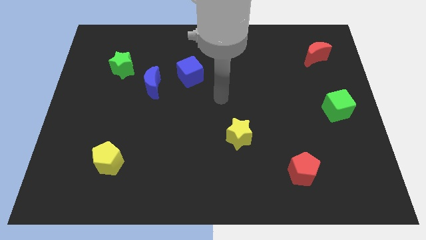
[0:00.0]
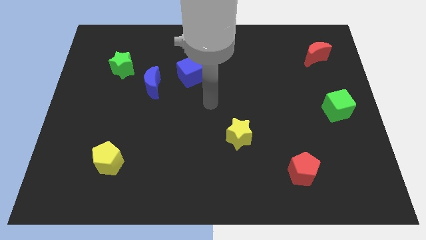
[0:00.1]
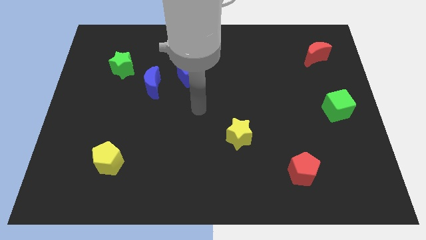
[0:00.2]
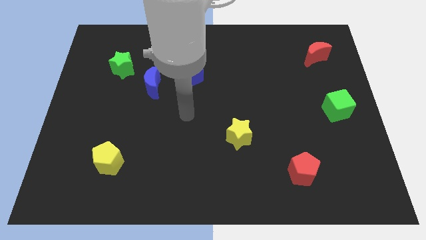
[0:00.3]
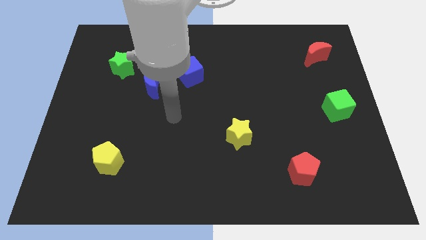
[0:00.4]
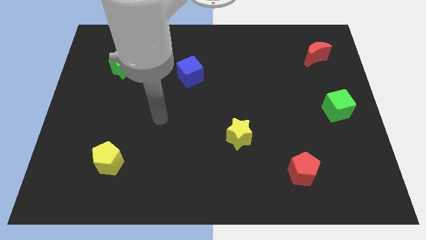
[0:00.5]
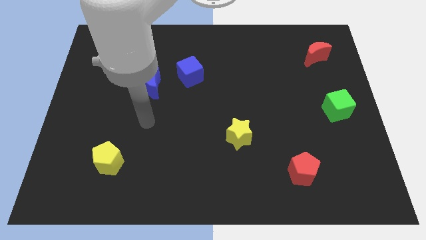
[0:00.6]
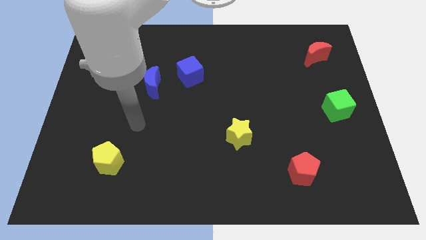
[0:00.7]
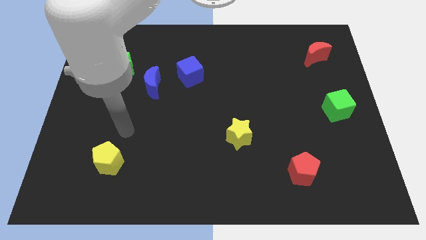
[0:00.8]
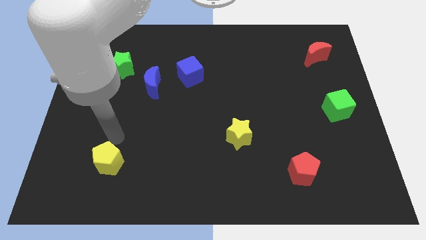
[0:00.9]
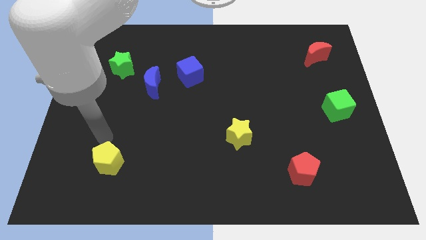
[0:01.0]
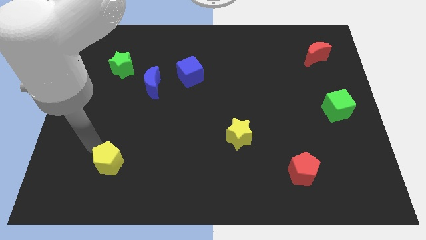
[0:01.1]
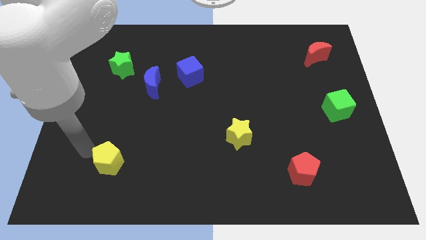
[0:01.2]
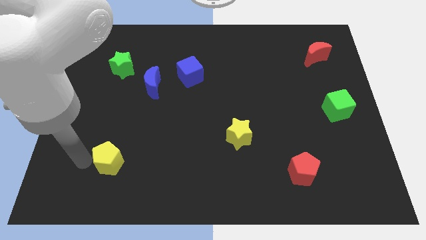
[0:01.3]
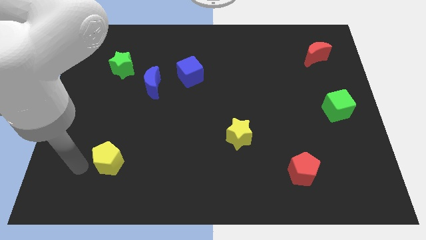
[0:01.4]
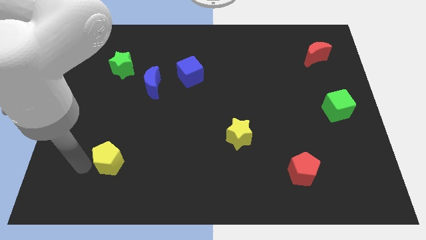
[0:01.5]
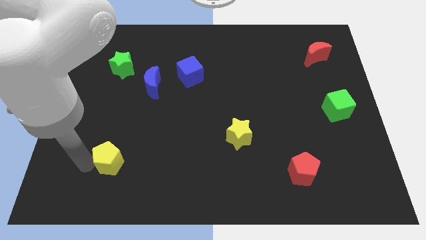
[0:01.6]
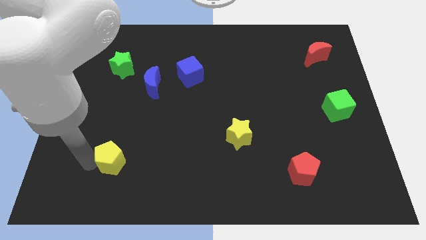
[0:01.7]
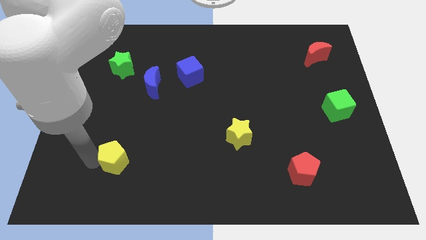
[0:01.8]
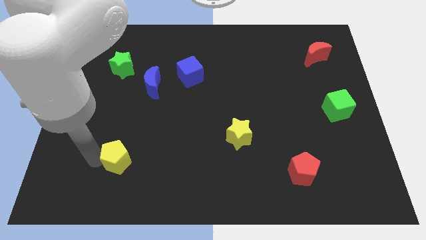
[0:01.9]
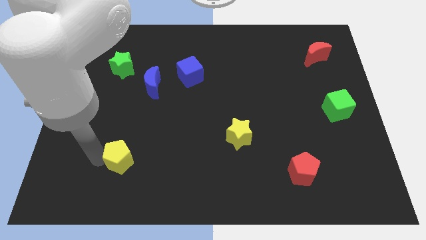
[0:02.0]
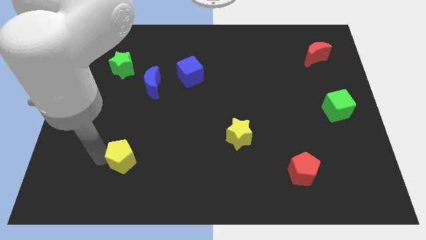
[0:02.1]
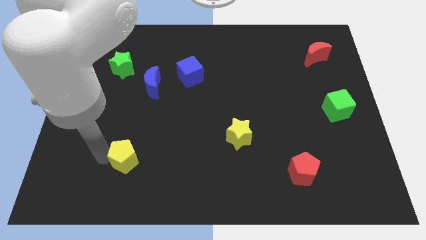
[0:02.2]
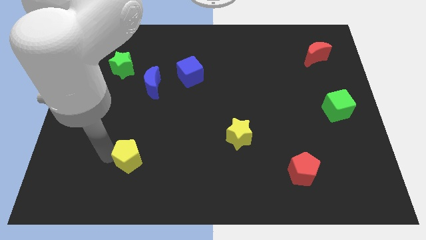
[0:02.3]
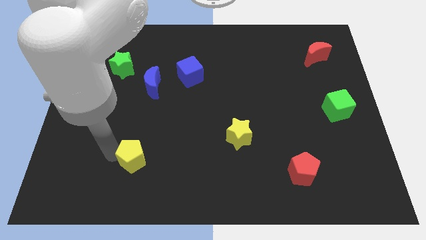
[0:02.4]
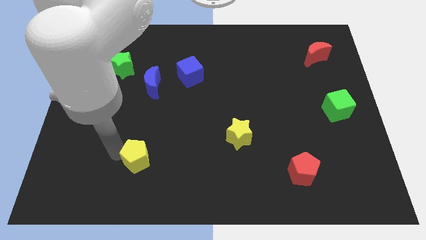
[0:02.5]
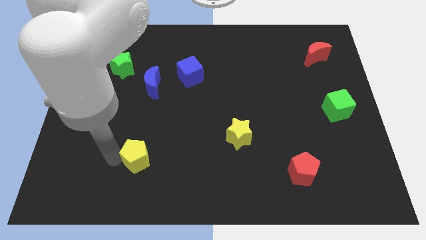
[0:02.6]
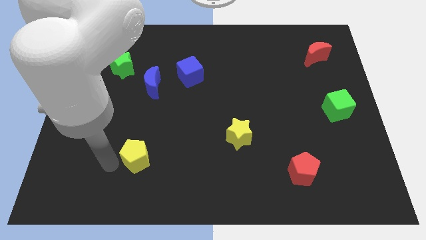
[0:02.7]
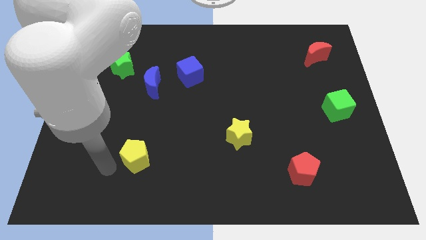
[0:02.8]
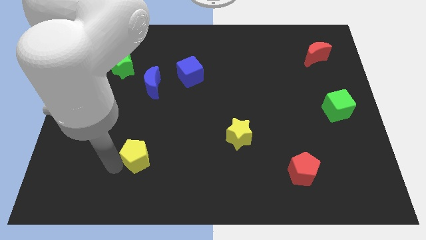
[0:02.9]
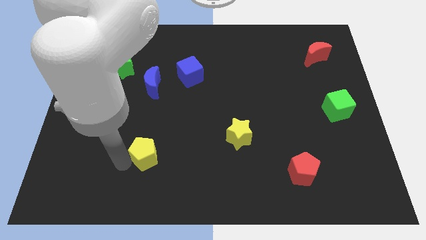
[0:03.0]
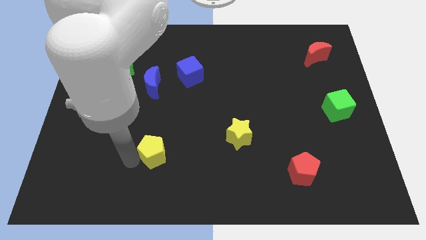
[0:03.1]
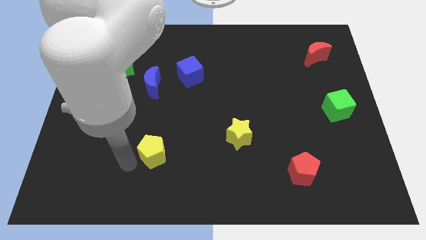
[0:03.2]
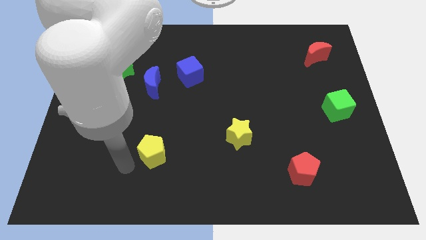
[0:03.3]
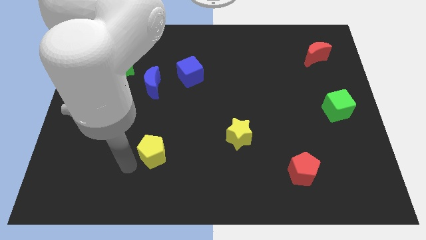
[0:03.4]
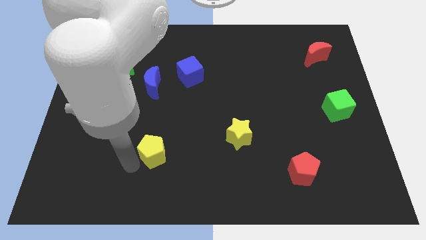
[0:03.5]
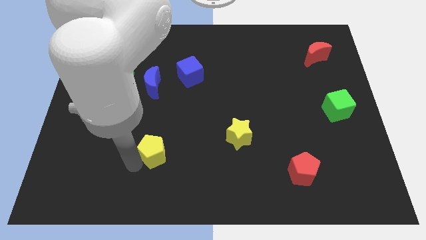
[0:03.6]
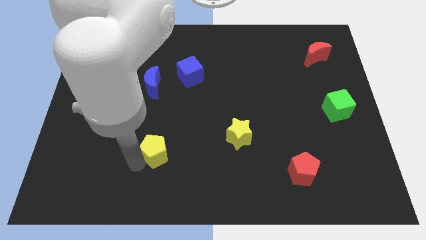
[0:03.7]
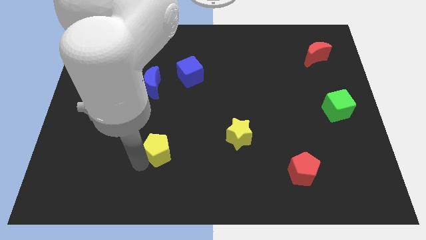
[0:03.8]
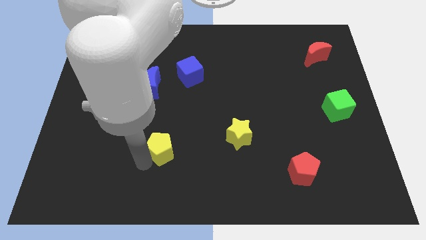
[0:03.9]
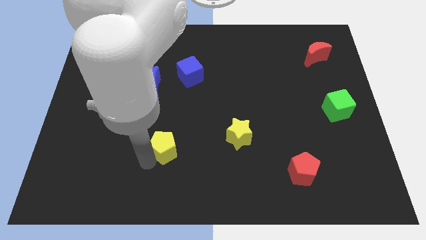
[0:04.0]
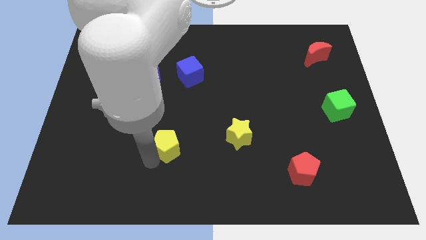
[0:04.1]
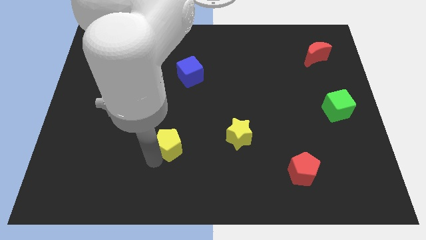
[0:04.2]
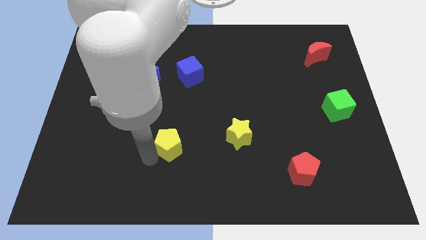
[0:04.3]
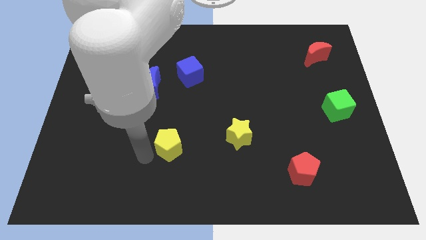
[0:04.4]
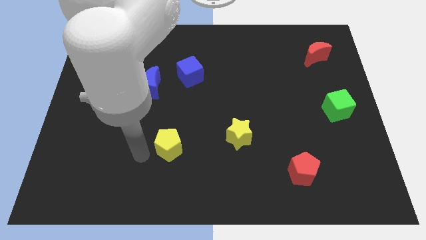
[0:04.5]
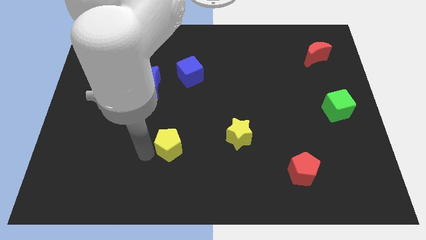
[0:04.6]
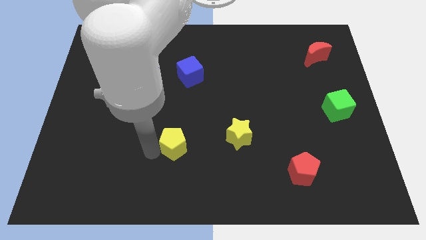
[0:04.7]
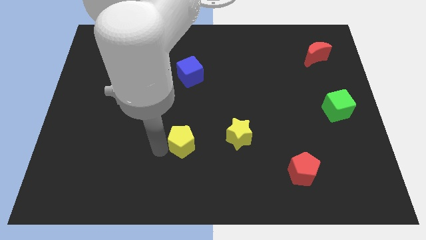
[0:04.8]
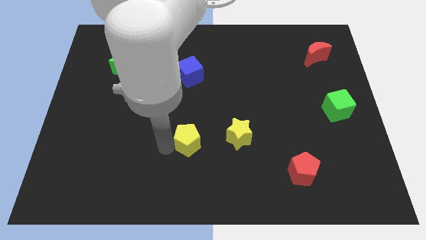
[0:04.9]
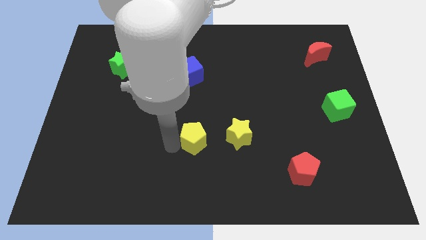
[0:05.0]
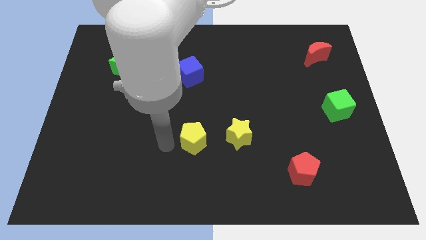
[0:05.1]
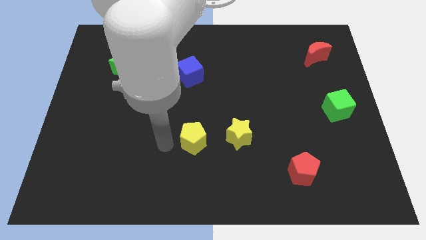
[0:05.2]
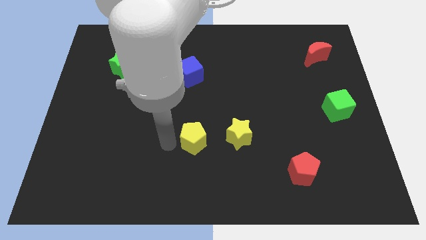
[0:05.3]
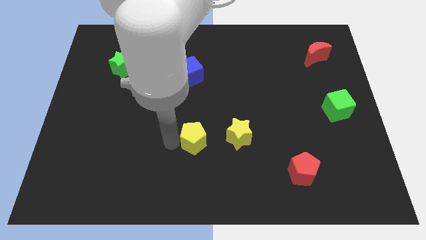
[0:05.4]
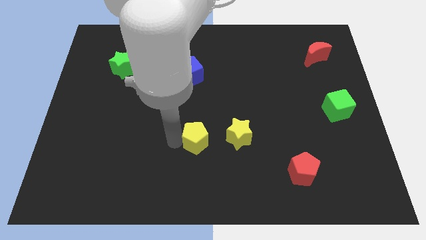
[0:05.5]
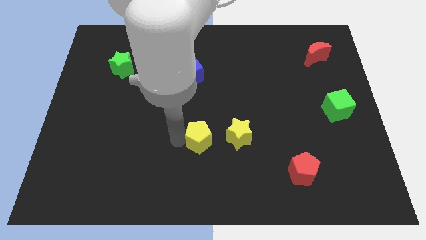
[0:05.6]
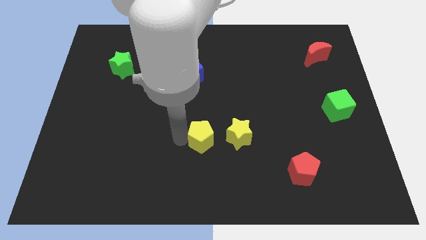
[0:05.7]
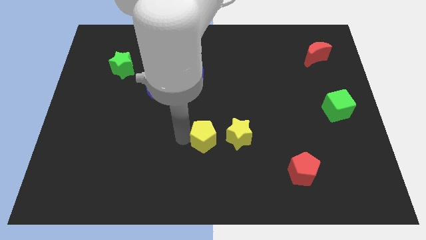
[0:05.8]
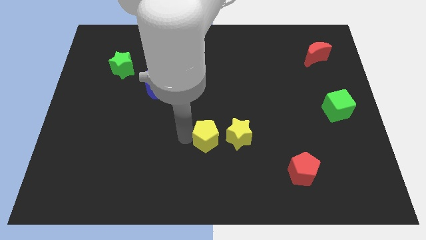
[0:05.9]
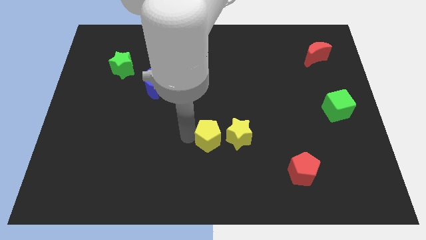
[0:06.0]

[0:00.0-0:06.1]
push the yellow pentagon to the yellow star

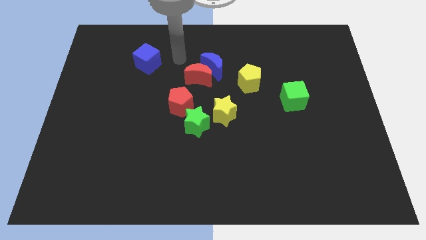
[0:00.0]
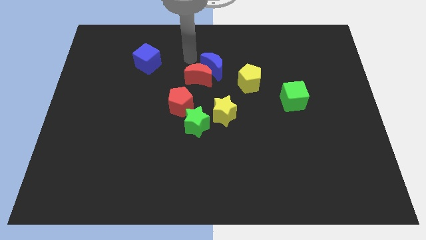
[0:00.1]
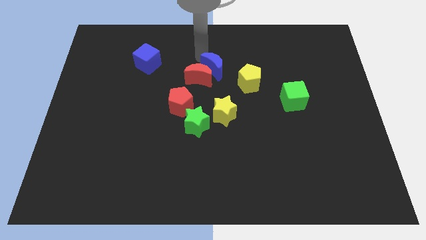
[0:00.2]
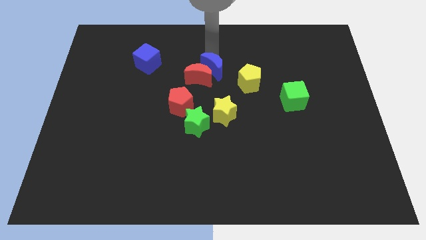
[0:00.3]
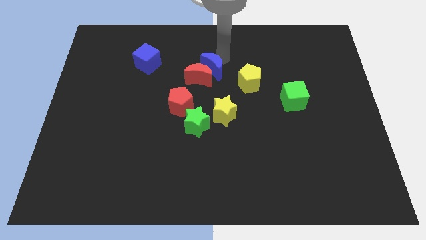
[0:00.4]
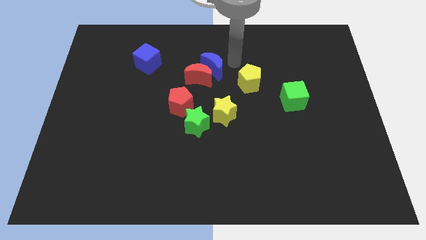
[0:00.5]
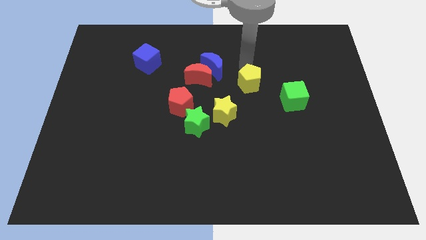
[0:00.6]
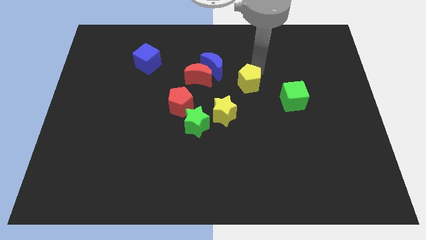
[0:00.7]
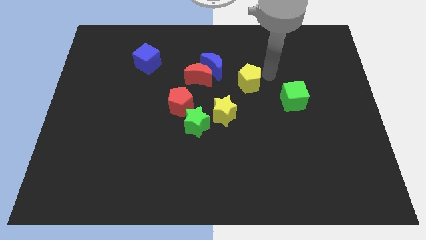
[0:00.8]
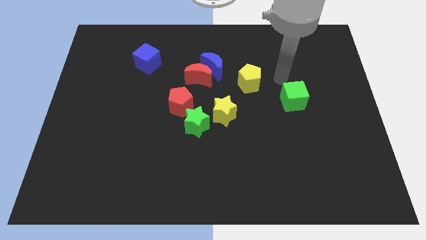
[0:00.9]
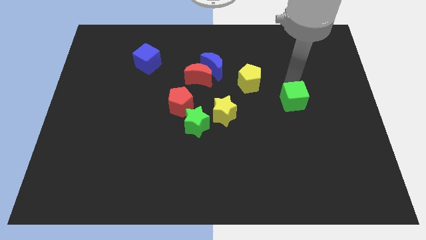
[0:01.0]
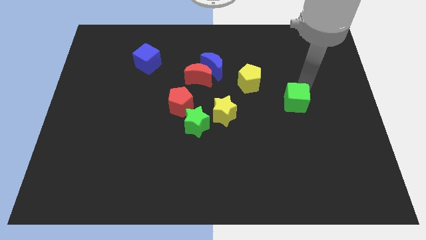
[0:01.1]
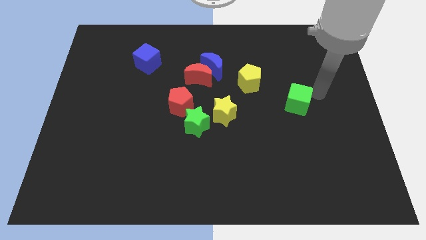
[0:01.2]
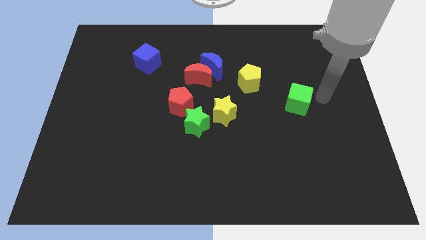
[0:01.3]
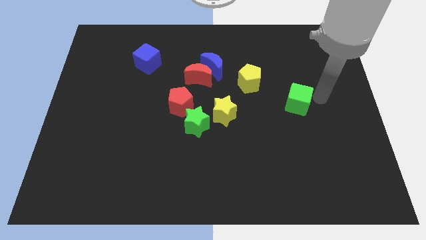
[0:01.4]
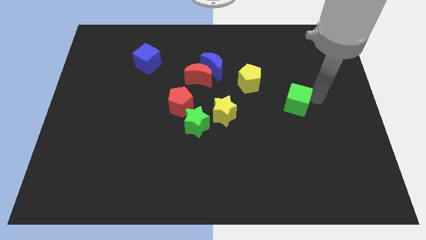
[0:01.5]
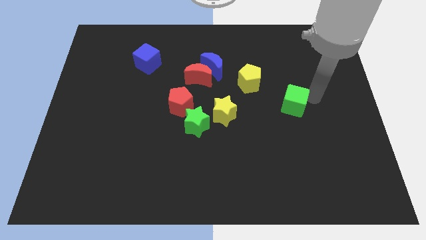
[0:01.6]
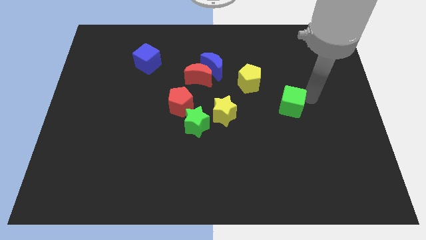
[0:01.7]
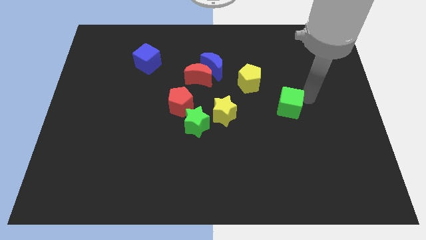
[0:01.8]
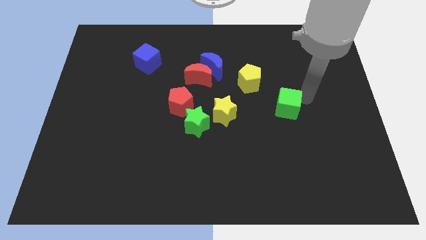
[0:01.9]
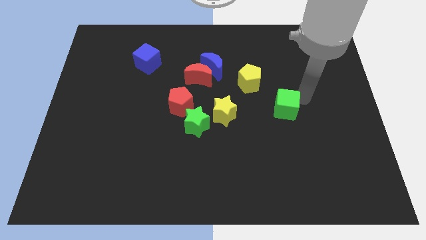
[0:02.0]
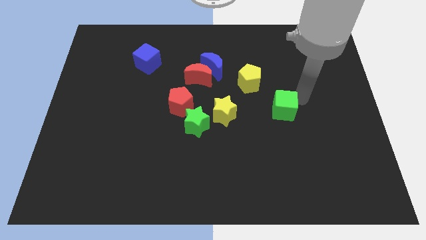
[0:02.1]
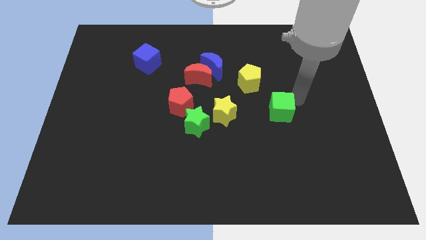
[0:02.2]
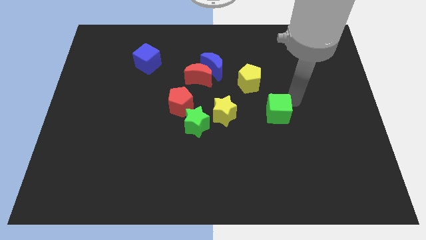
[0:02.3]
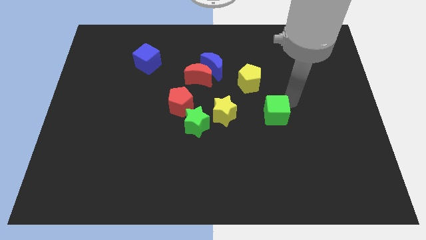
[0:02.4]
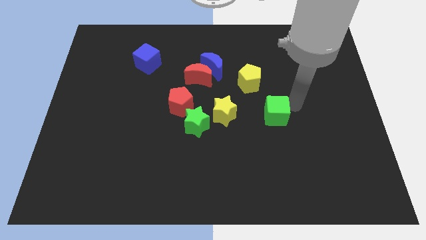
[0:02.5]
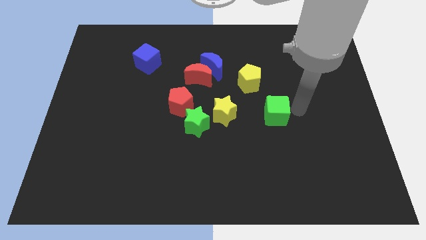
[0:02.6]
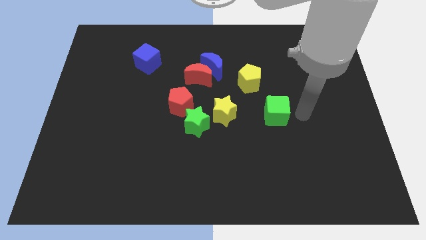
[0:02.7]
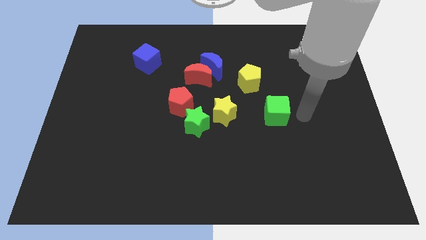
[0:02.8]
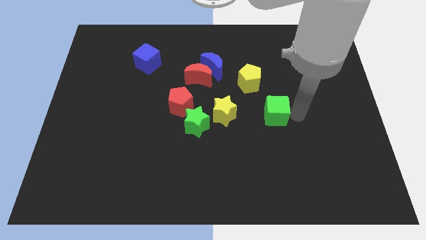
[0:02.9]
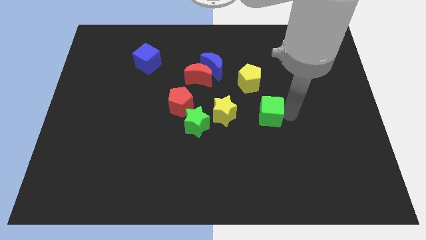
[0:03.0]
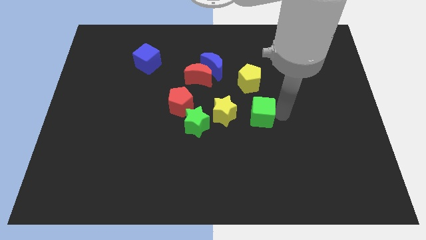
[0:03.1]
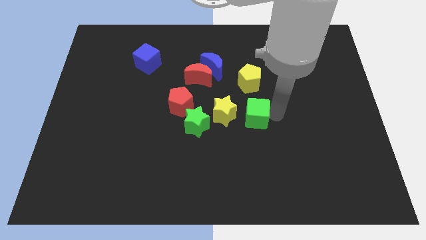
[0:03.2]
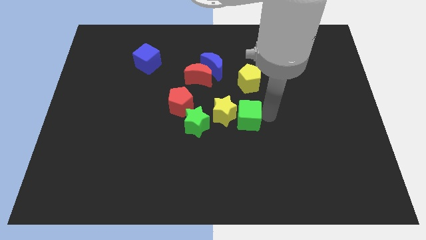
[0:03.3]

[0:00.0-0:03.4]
put the green cube towards the yellow star
